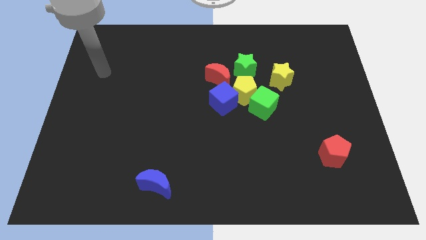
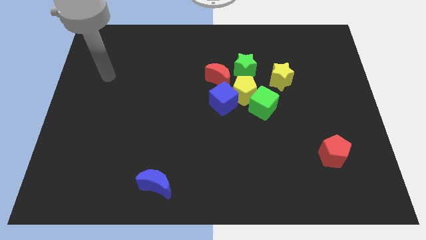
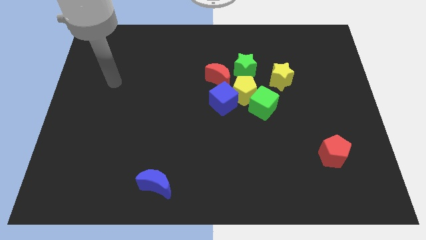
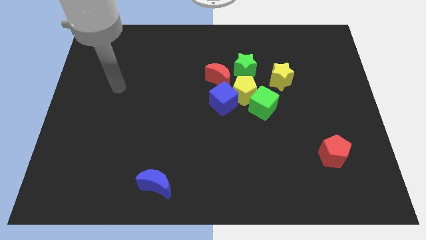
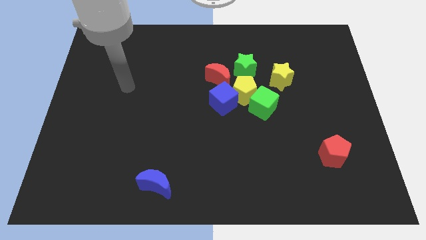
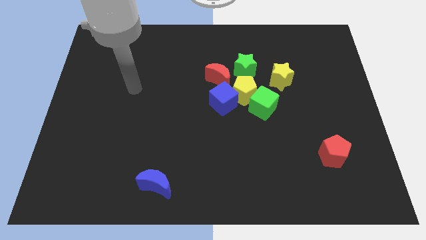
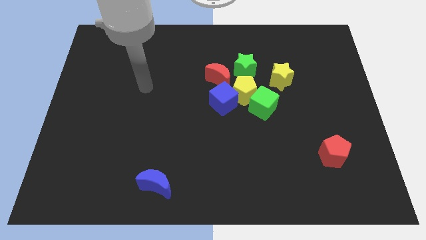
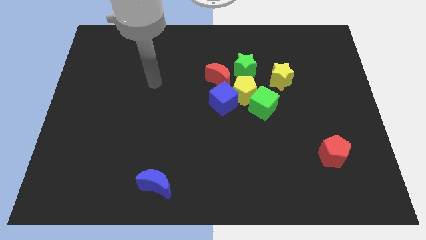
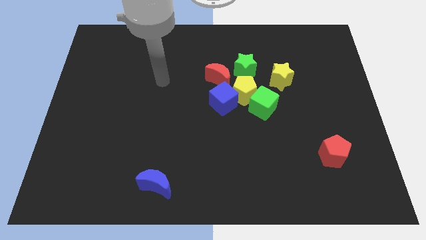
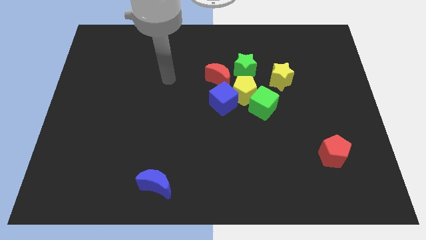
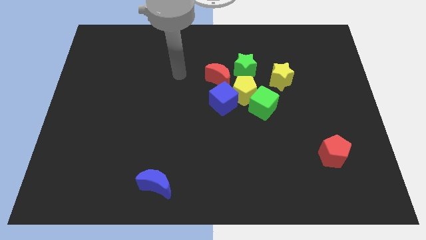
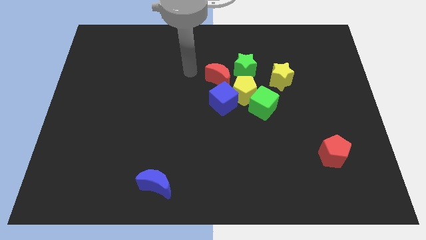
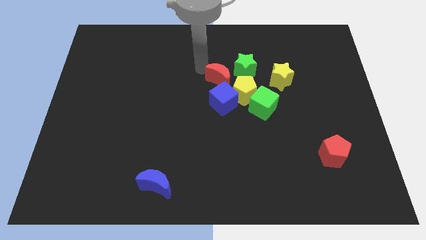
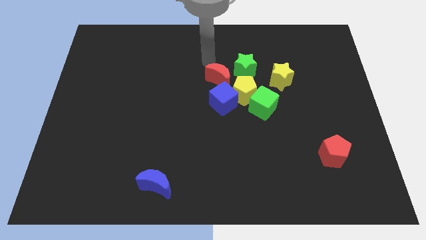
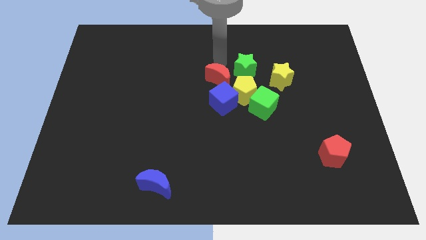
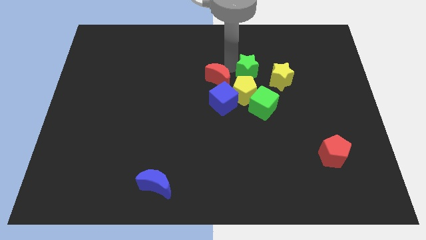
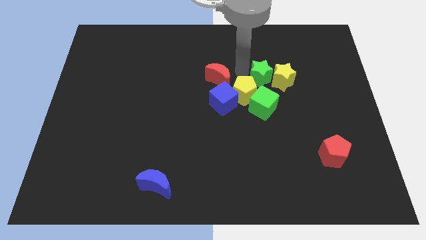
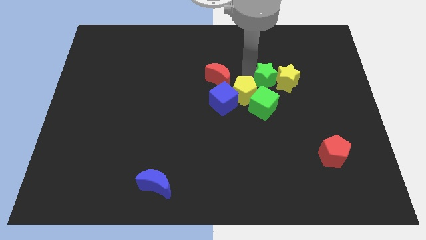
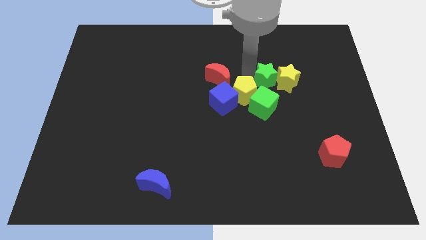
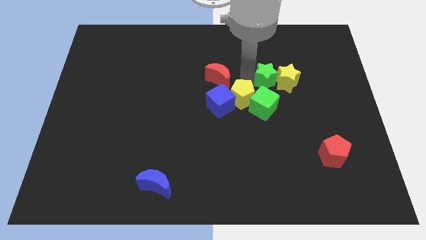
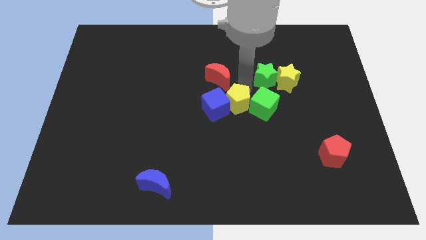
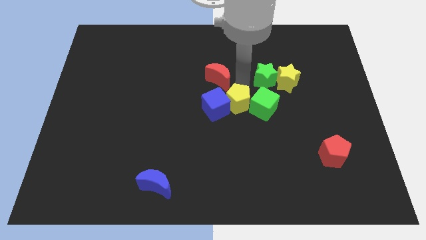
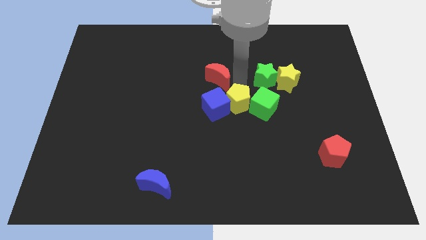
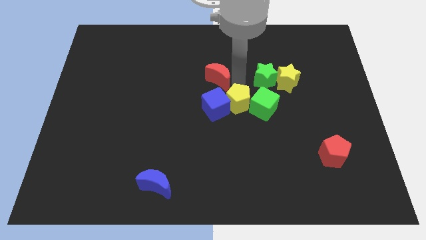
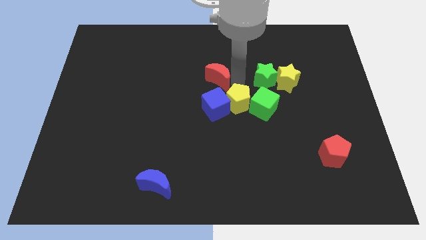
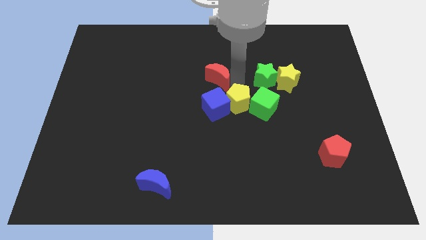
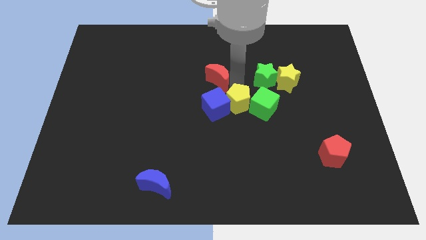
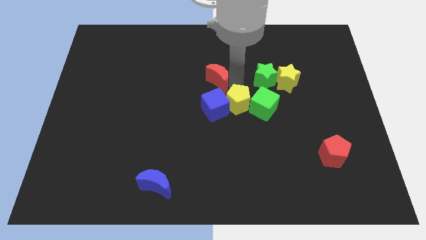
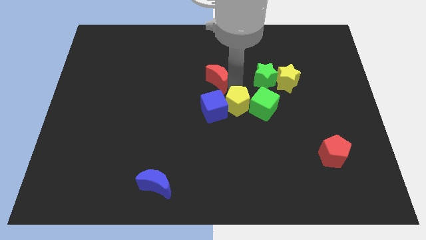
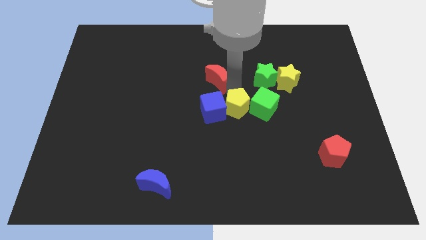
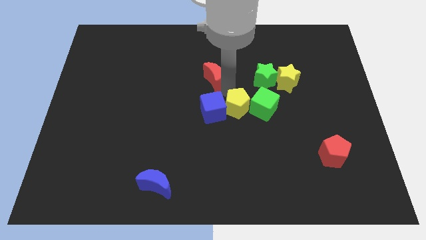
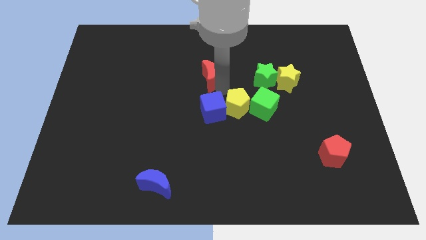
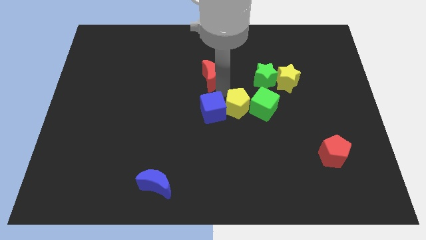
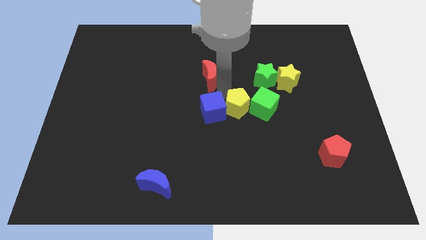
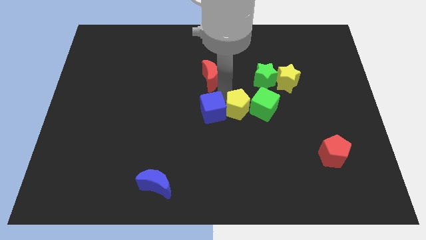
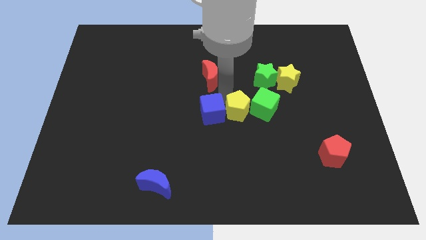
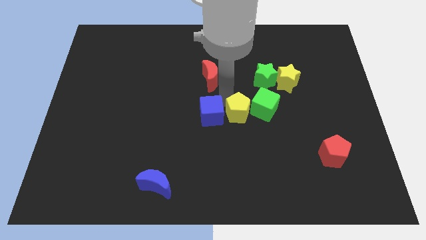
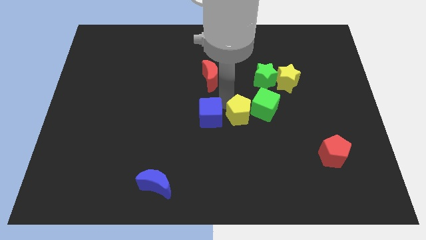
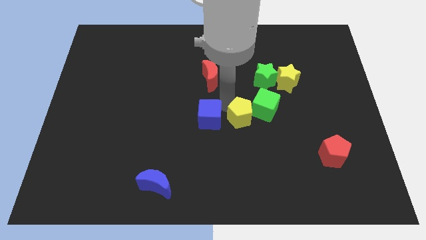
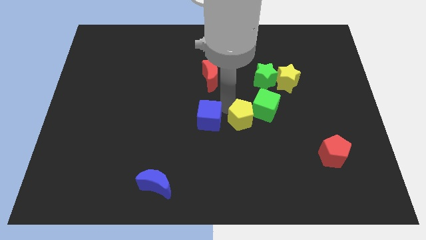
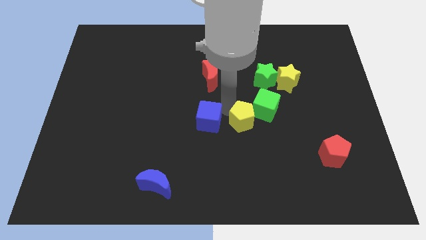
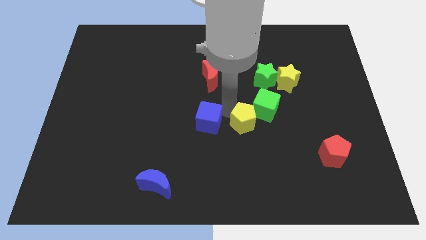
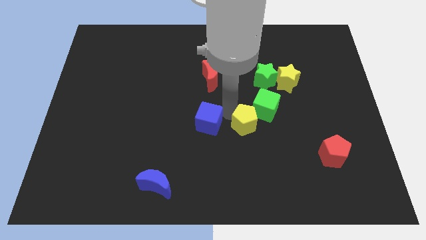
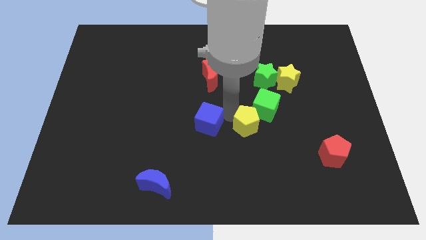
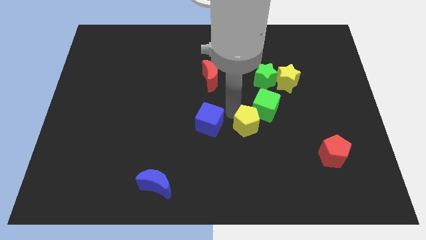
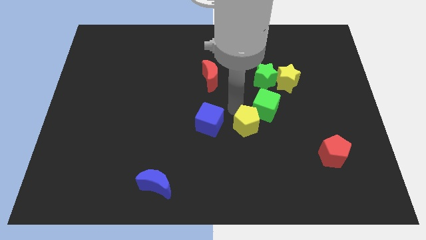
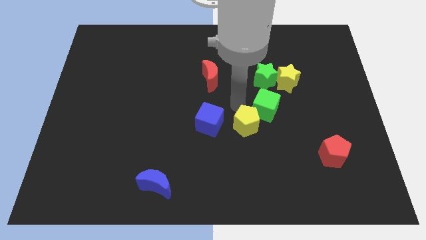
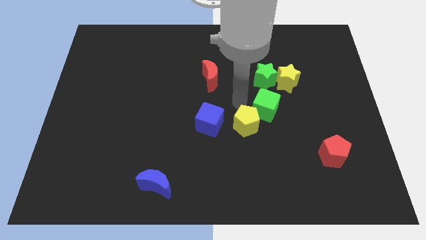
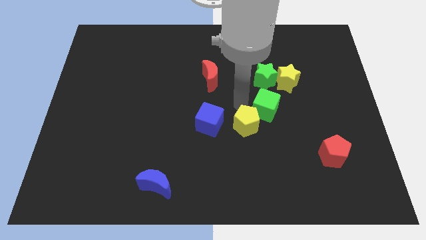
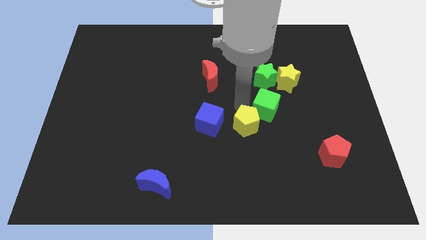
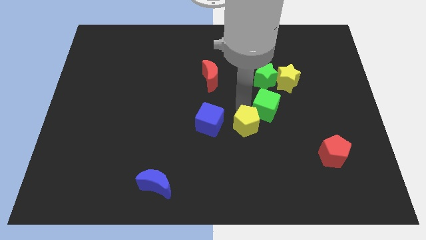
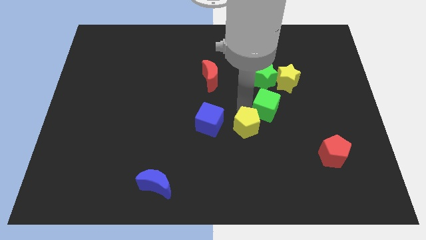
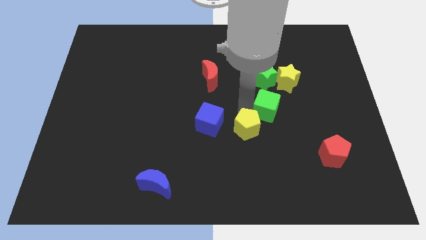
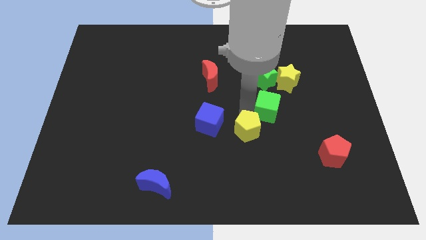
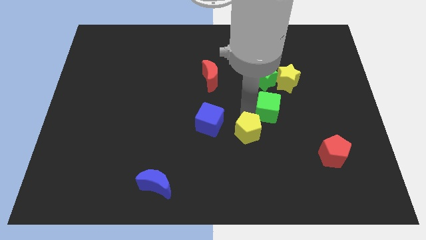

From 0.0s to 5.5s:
move the yellow pentagon away from the clump

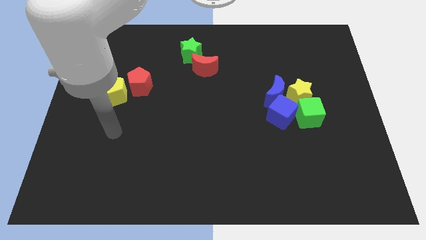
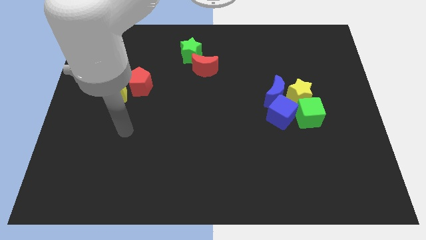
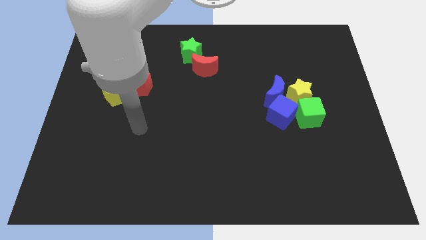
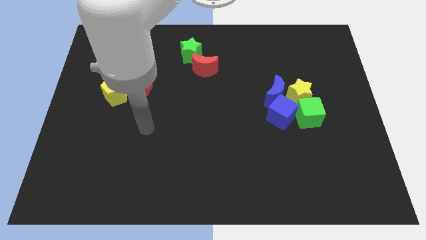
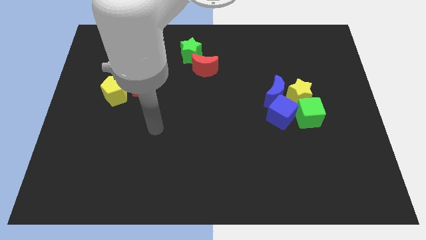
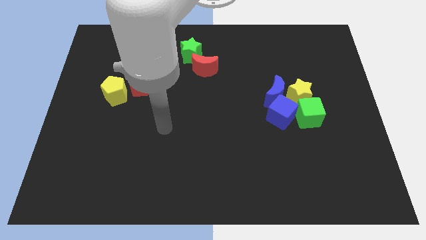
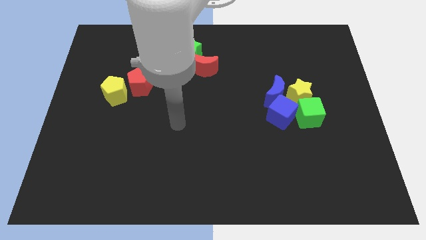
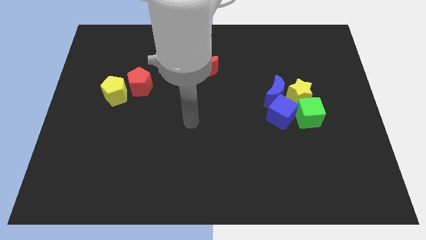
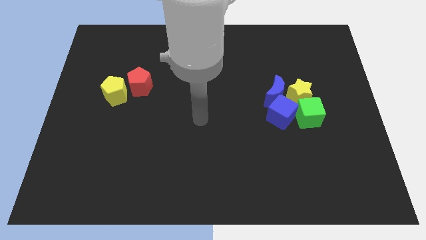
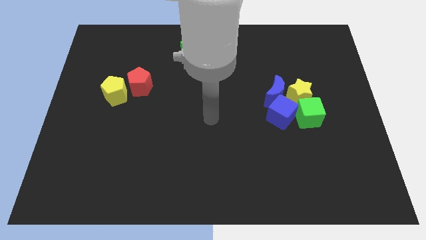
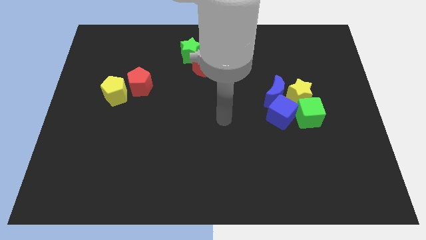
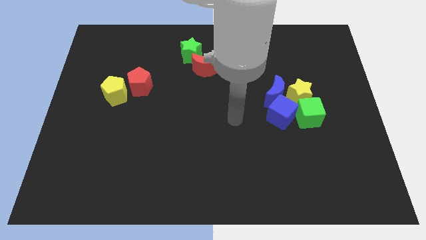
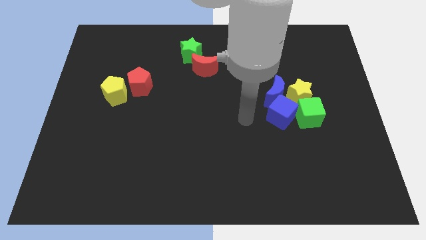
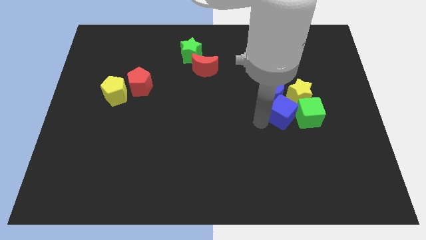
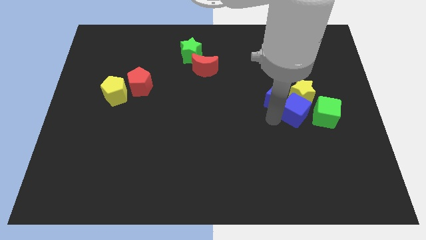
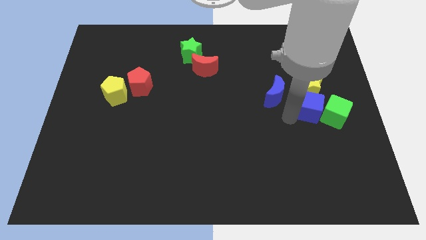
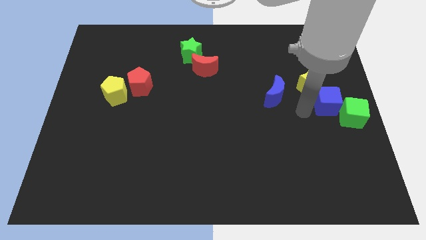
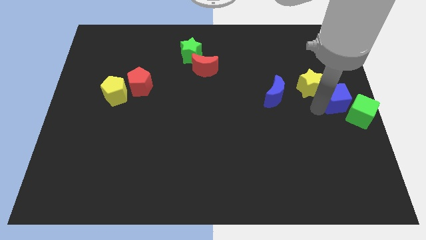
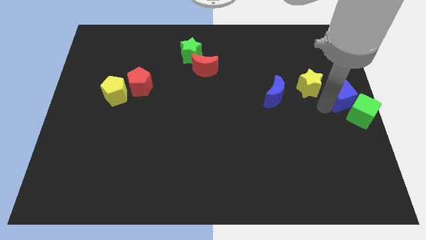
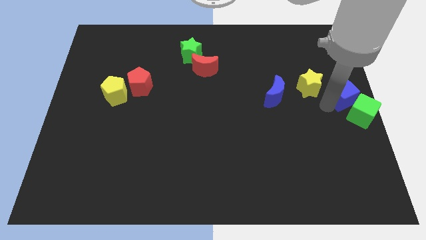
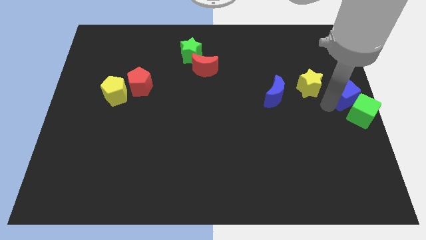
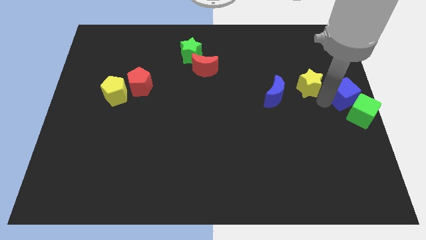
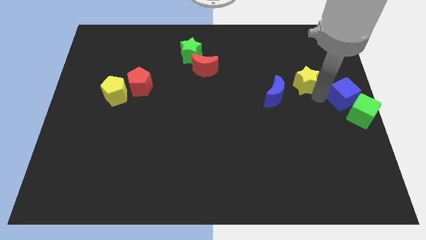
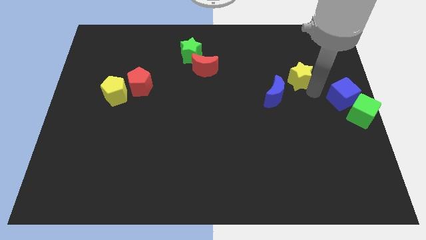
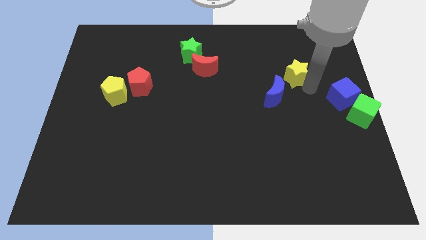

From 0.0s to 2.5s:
move the yellow star away from the group of blocks

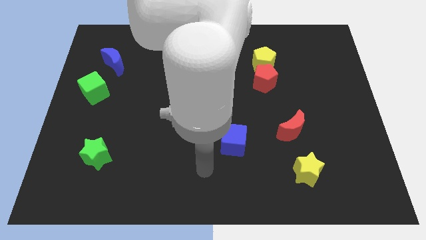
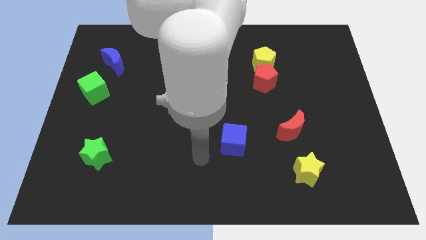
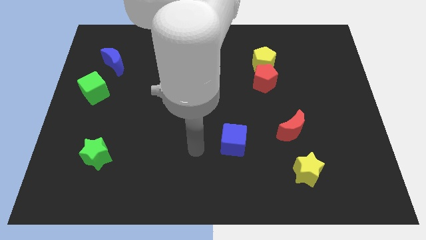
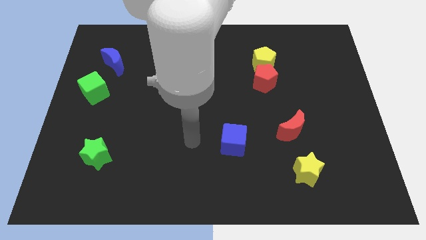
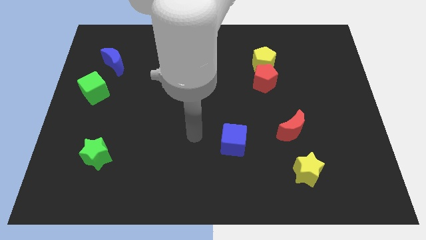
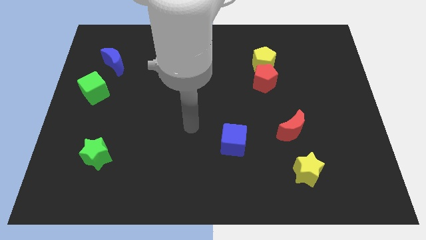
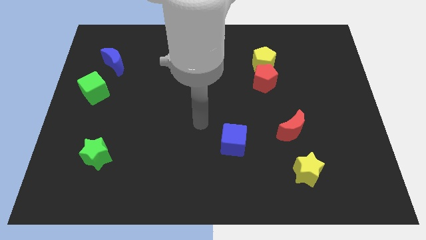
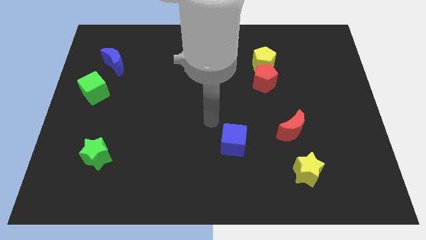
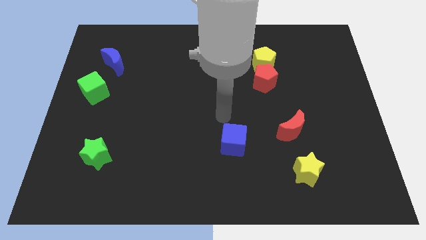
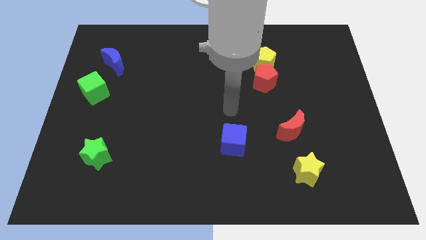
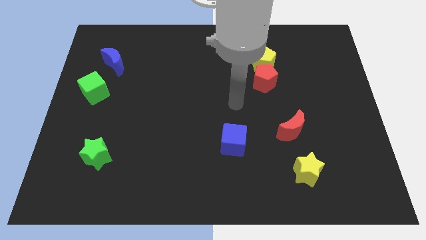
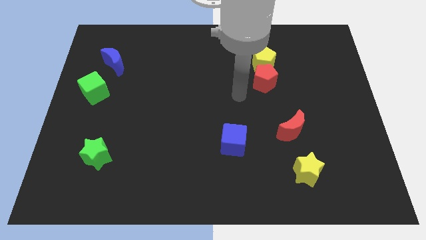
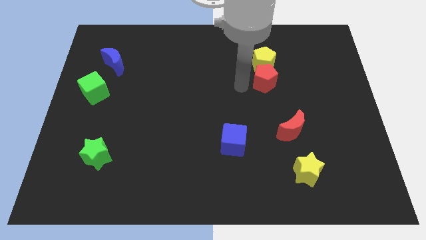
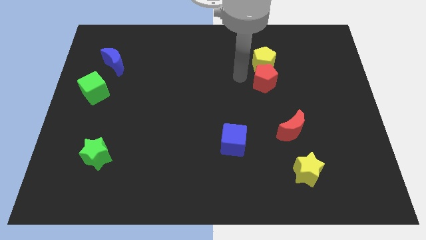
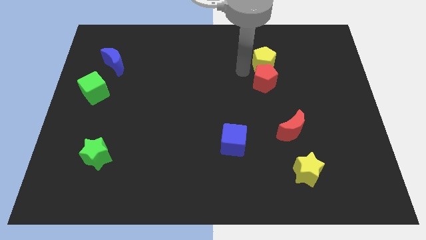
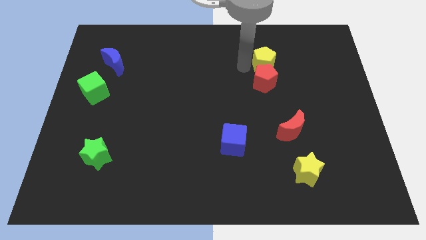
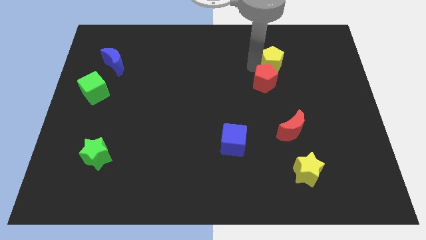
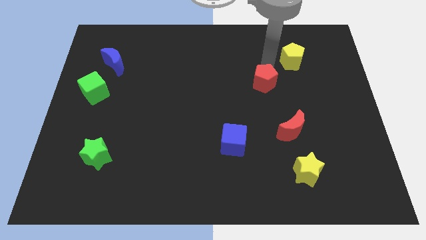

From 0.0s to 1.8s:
move the red pentagon away from the yellow pentagon
